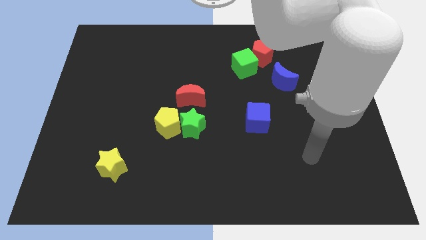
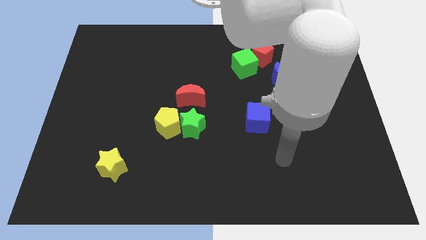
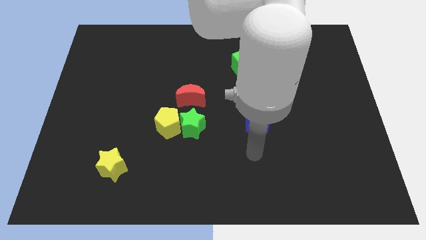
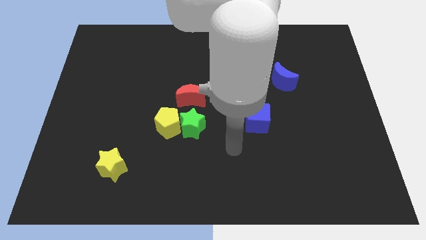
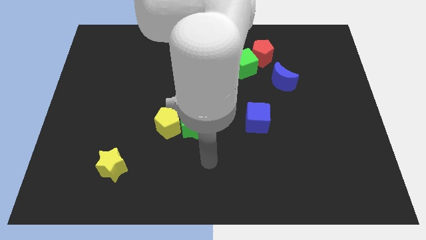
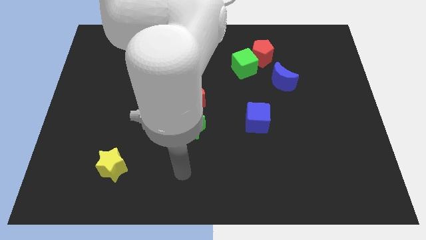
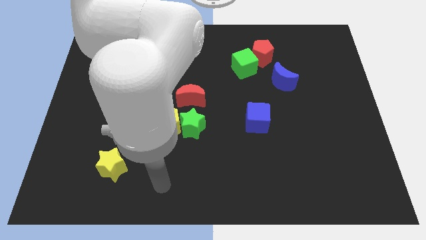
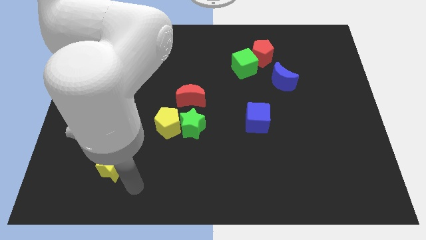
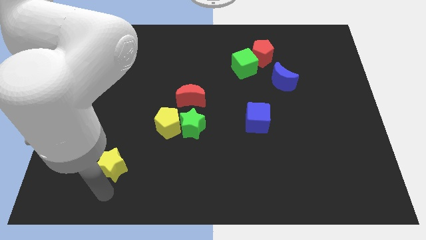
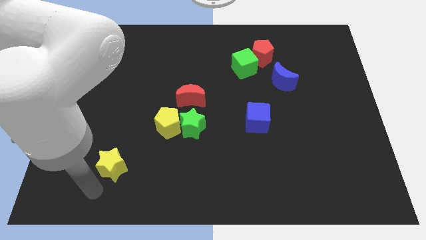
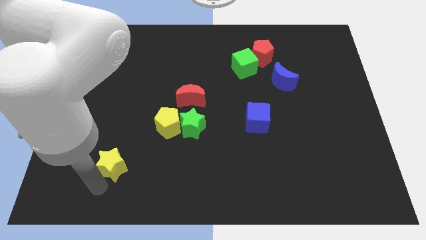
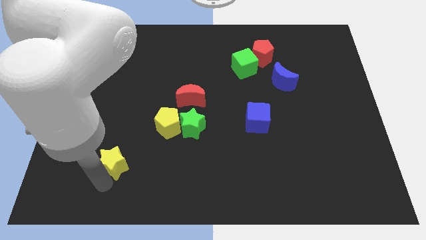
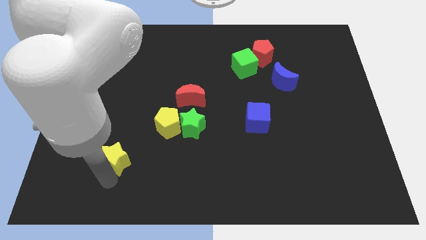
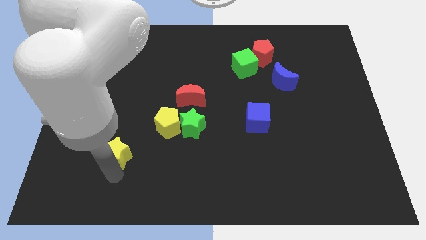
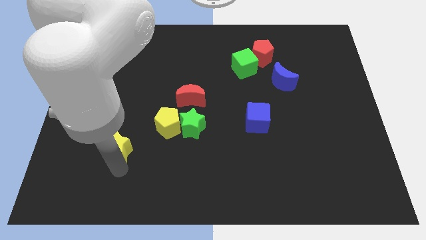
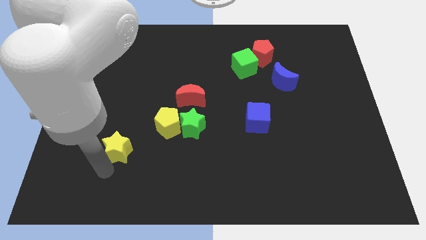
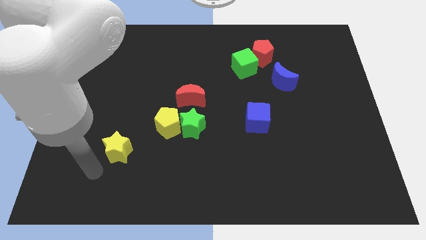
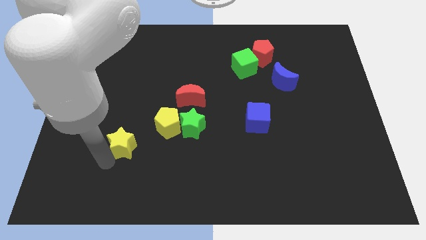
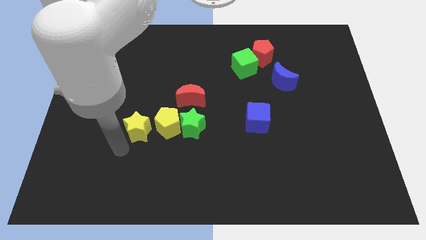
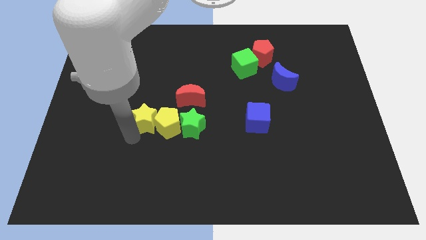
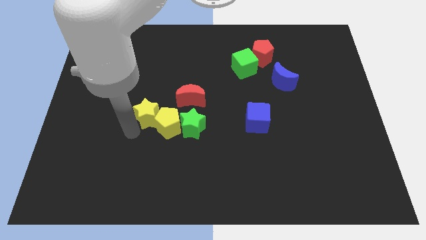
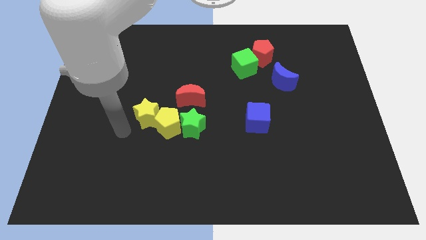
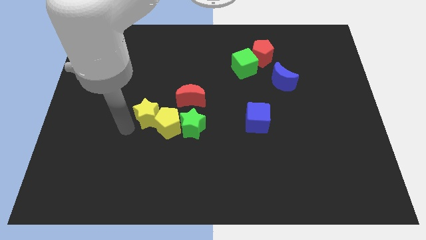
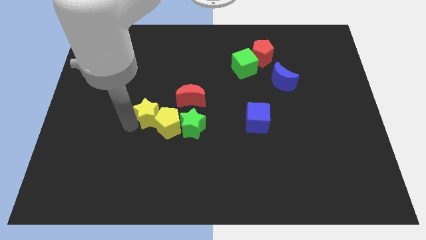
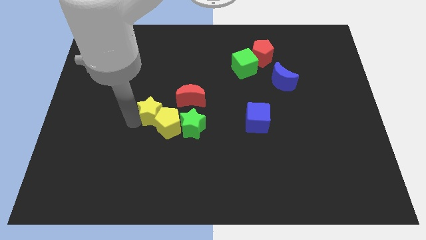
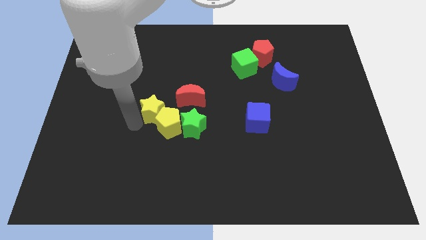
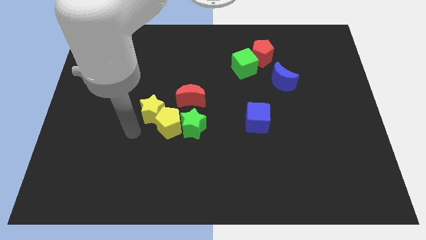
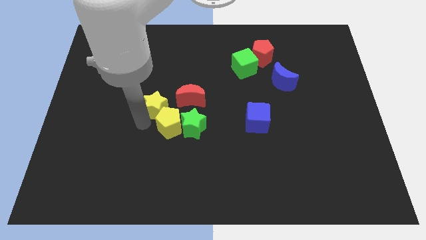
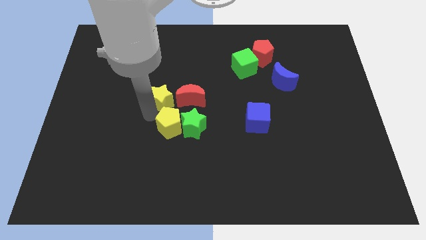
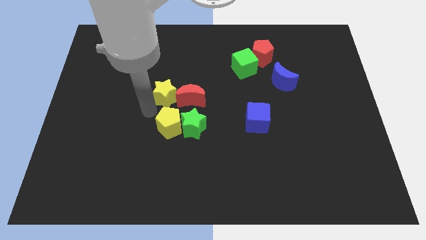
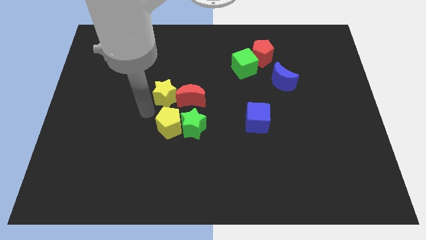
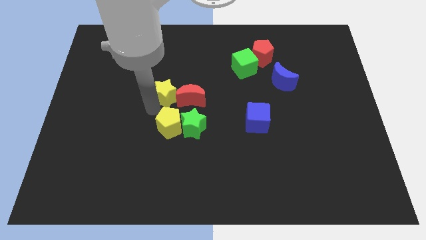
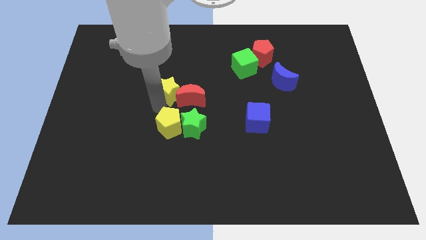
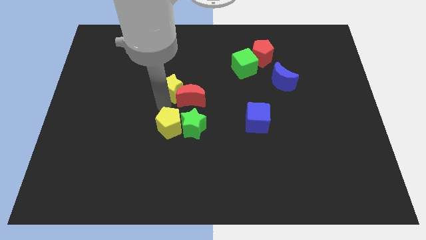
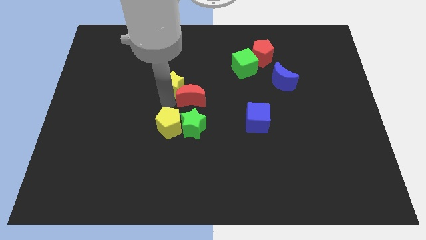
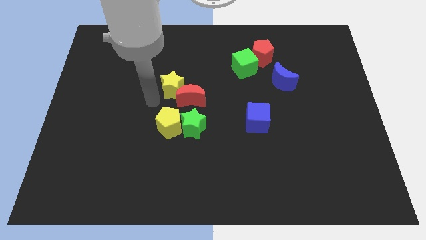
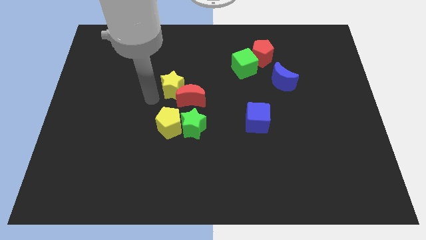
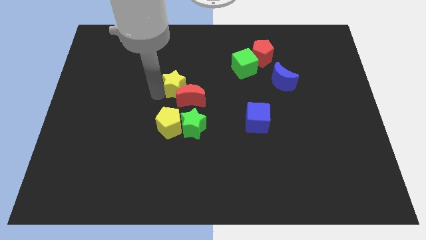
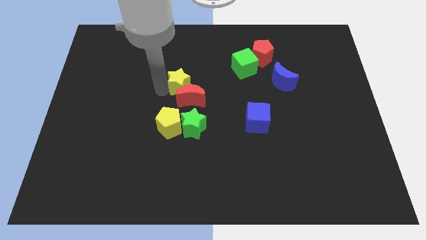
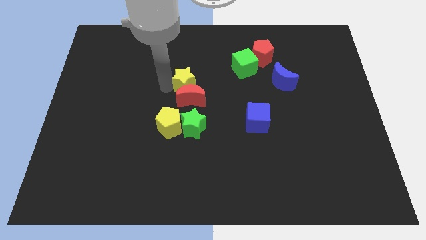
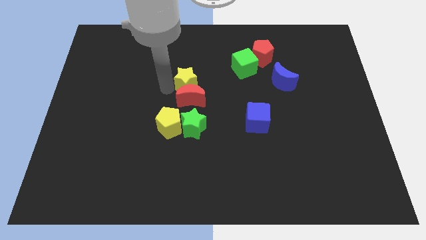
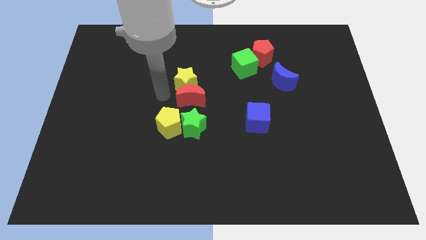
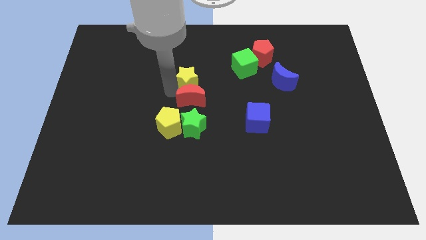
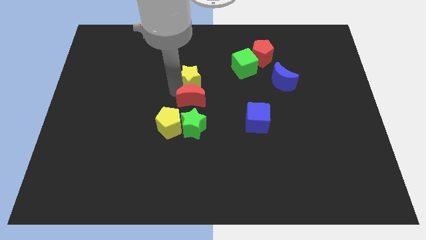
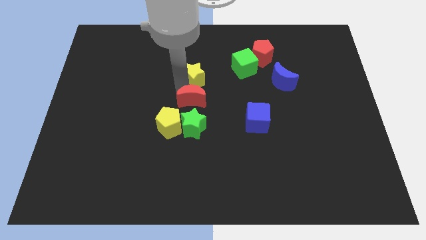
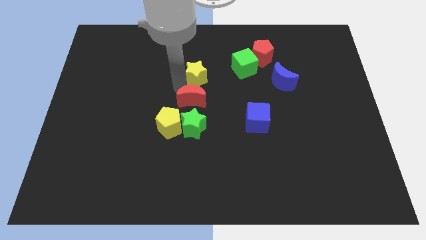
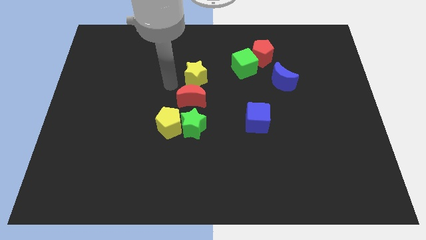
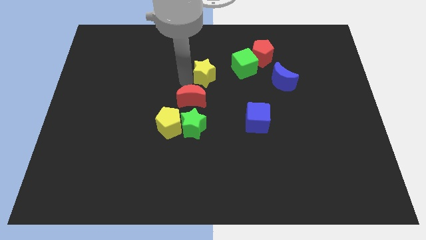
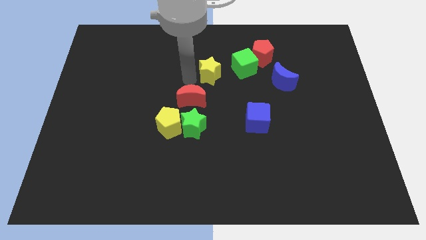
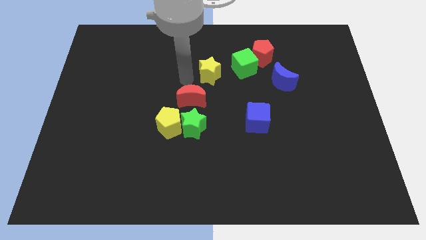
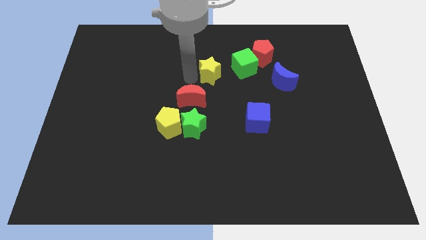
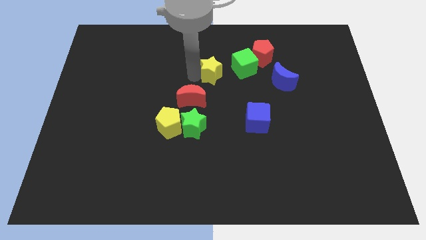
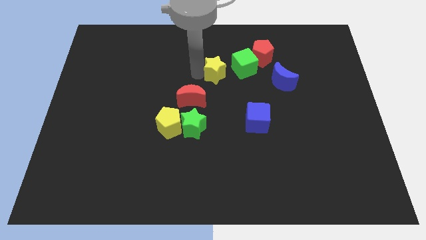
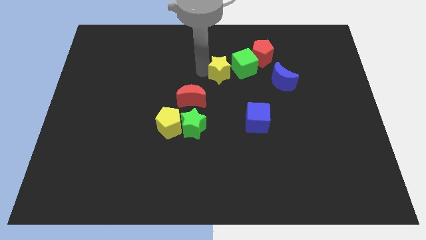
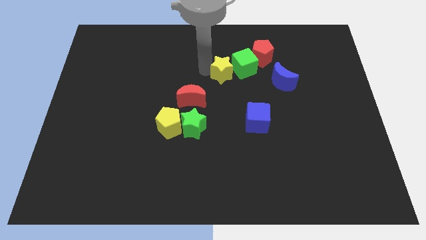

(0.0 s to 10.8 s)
put the yellow star towards the green cube
